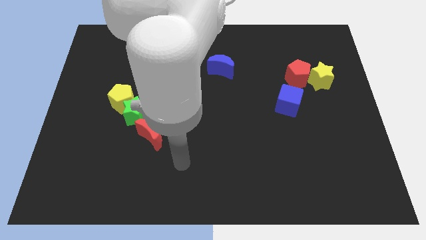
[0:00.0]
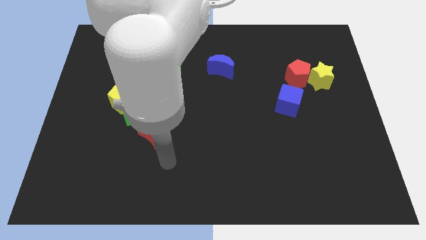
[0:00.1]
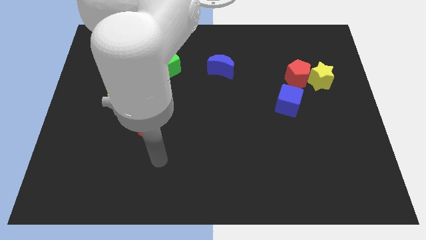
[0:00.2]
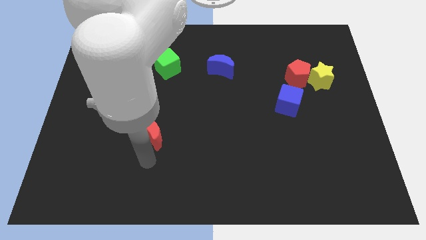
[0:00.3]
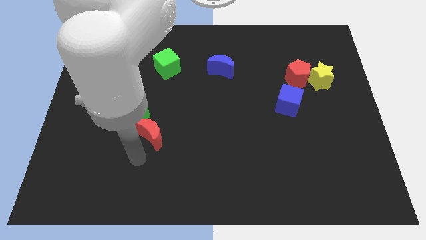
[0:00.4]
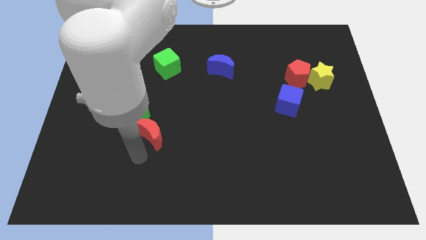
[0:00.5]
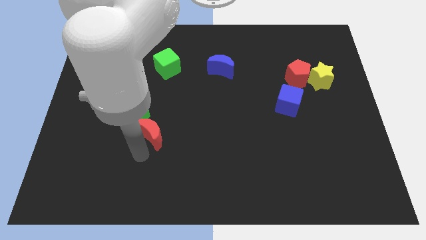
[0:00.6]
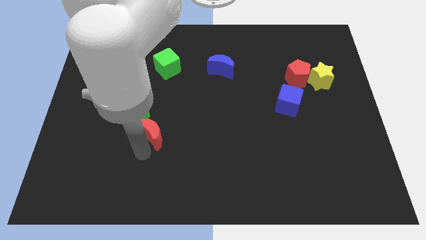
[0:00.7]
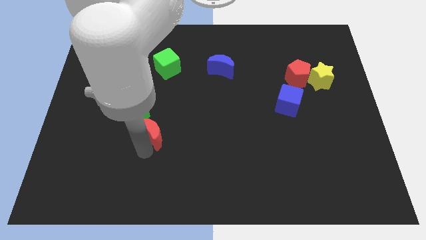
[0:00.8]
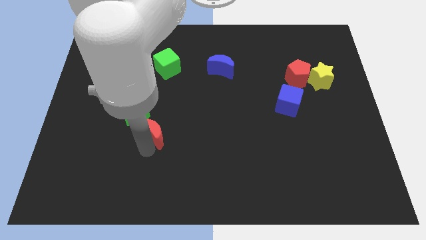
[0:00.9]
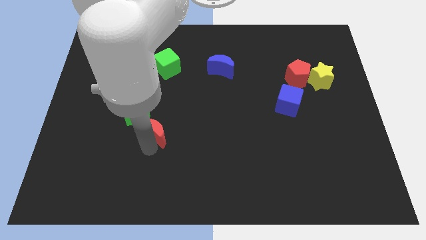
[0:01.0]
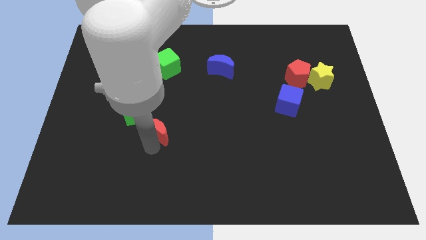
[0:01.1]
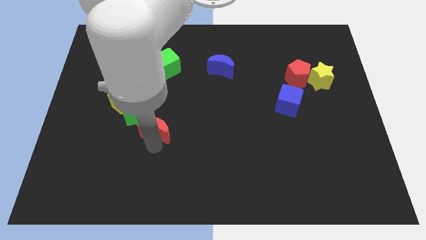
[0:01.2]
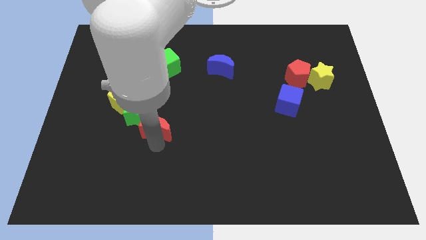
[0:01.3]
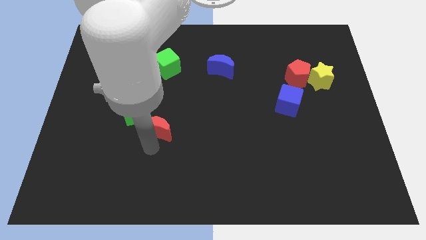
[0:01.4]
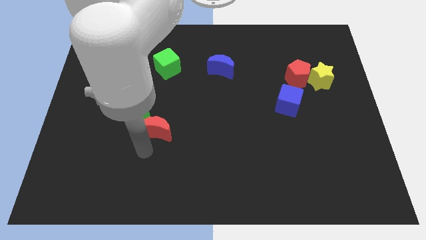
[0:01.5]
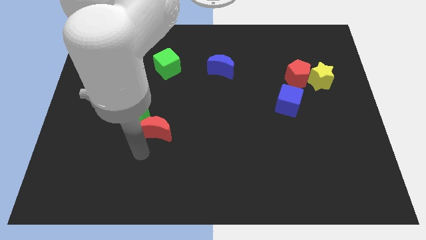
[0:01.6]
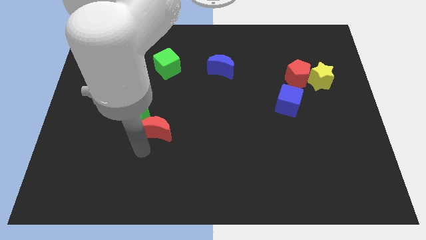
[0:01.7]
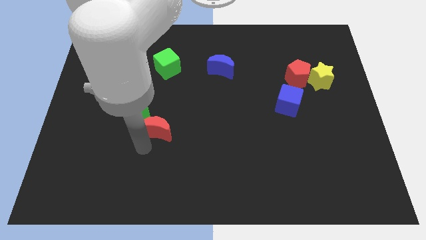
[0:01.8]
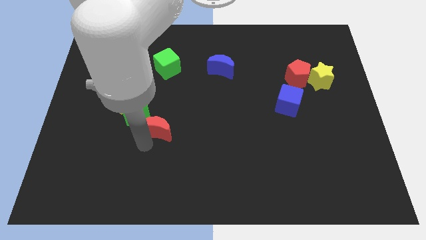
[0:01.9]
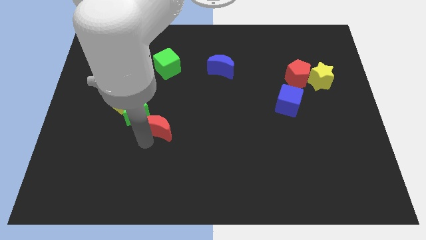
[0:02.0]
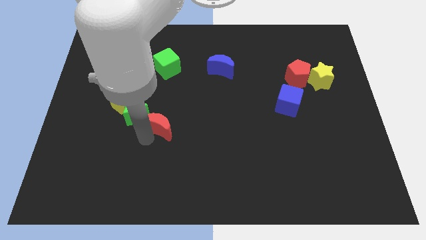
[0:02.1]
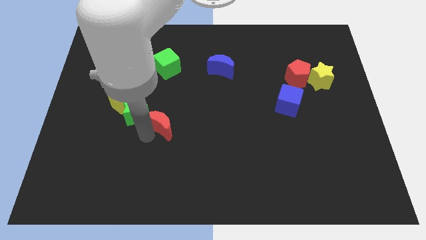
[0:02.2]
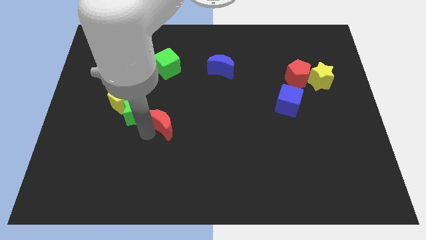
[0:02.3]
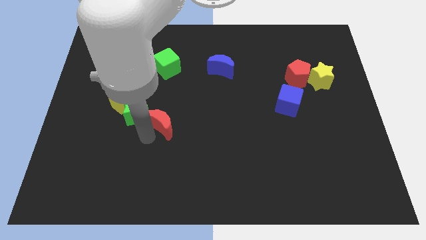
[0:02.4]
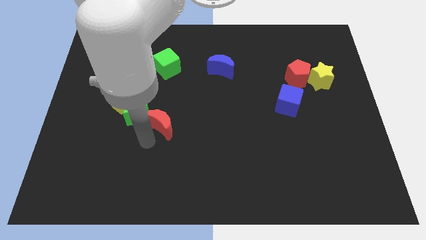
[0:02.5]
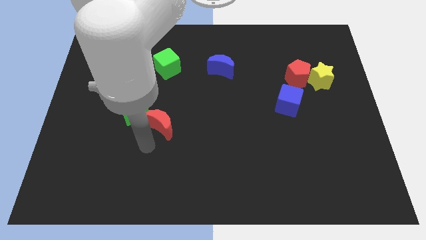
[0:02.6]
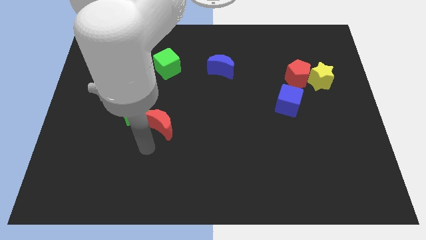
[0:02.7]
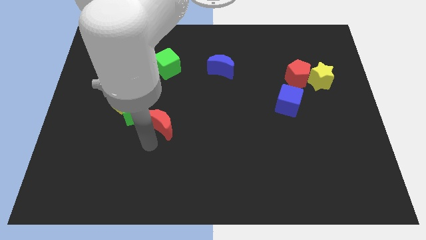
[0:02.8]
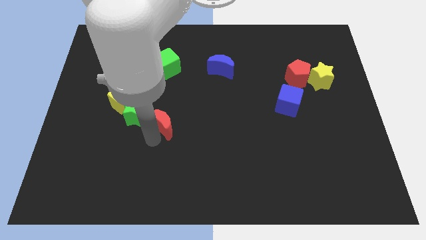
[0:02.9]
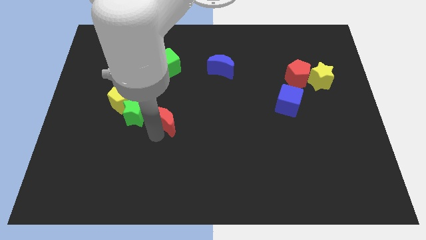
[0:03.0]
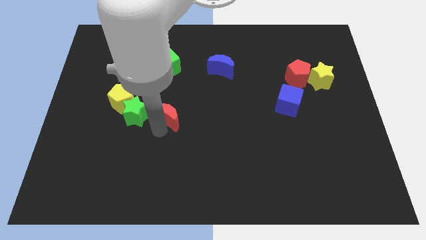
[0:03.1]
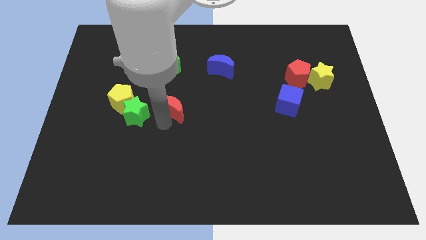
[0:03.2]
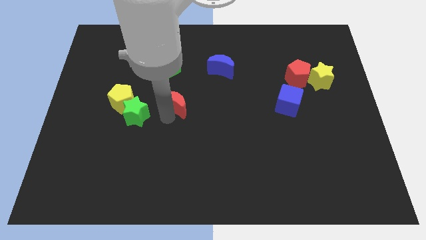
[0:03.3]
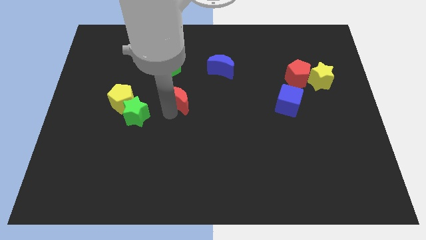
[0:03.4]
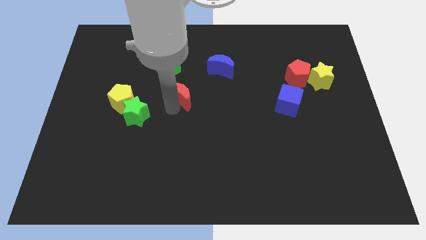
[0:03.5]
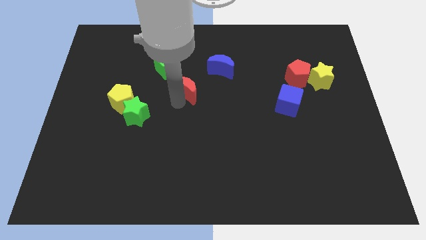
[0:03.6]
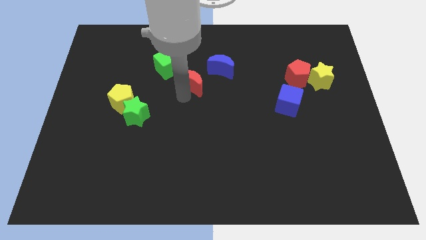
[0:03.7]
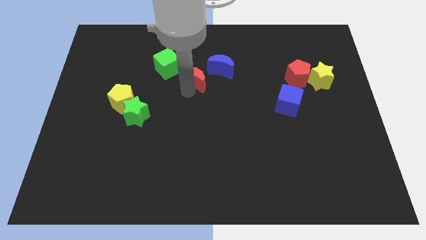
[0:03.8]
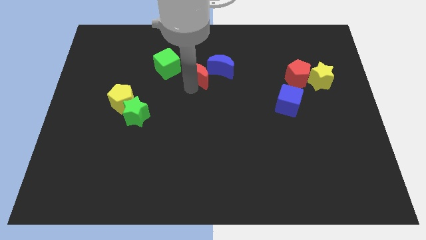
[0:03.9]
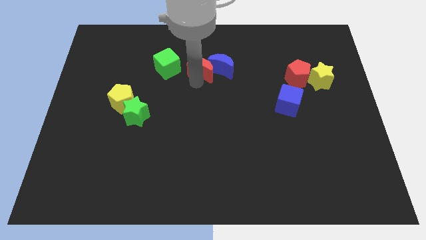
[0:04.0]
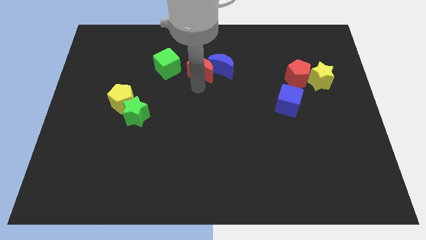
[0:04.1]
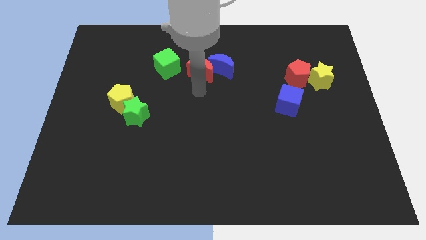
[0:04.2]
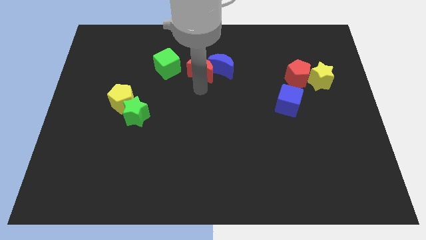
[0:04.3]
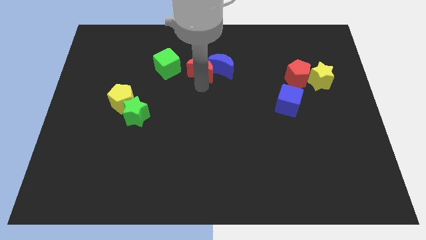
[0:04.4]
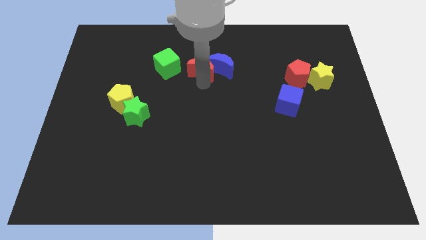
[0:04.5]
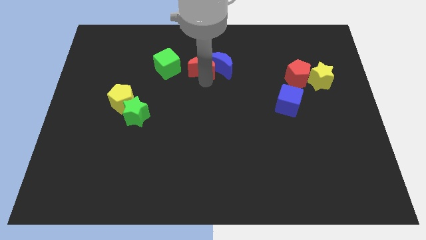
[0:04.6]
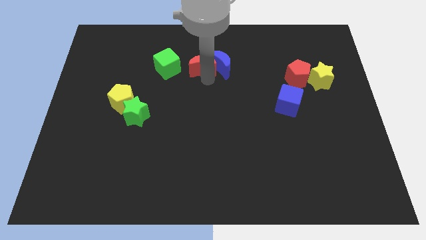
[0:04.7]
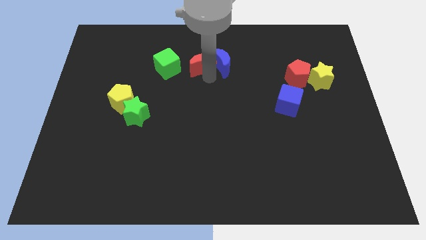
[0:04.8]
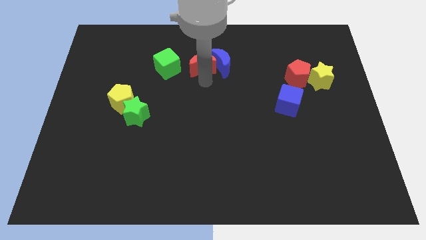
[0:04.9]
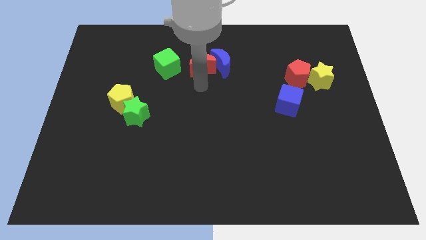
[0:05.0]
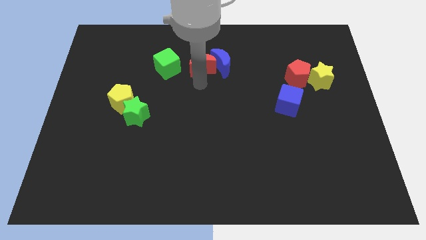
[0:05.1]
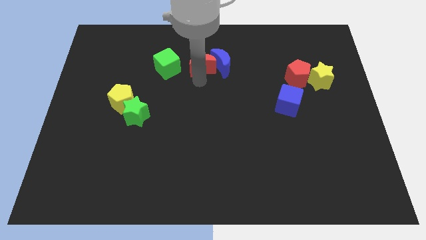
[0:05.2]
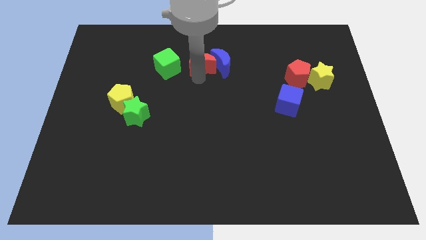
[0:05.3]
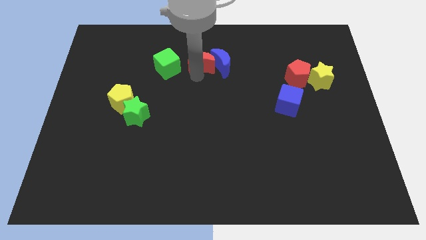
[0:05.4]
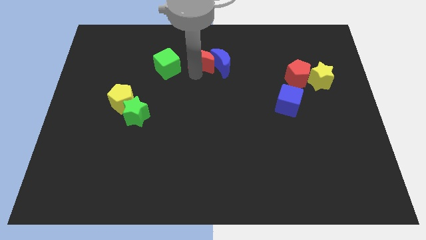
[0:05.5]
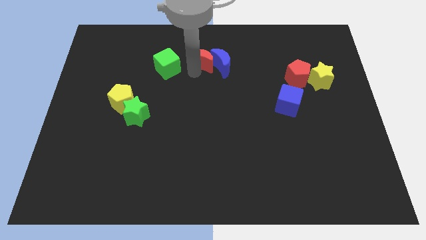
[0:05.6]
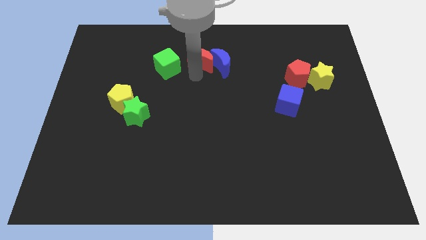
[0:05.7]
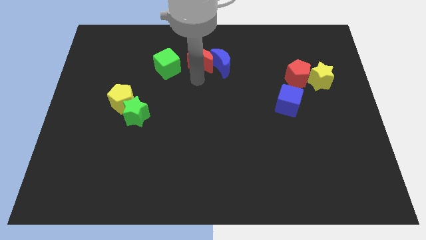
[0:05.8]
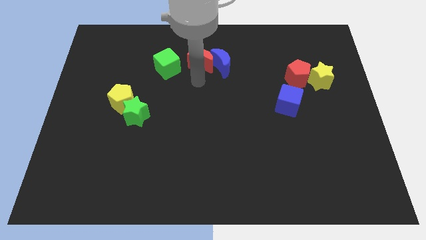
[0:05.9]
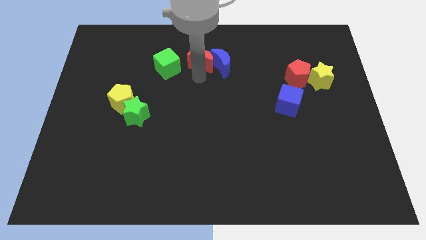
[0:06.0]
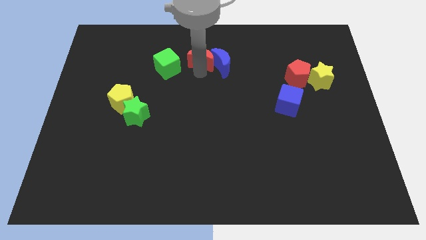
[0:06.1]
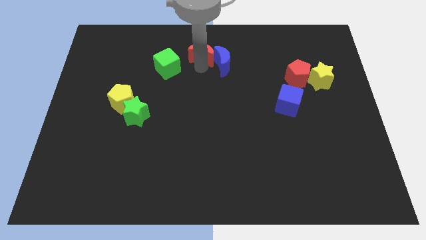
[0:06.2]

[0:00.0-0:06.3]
push the red moon to the towards your base

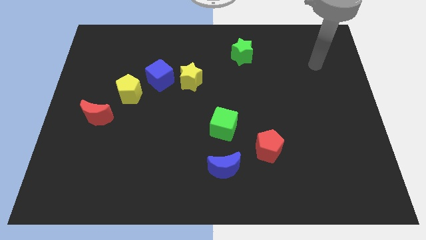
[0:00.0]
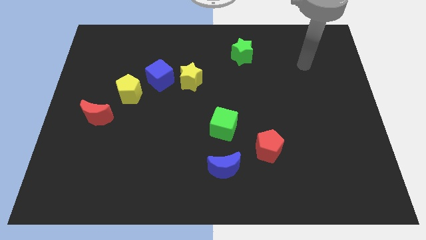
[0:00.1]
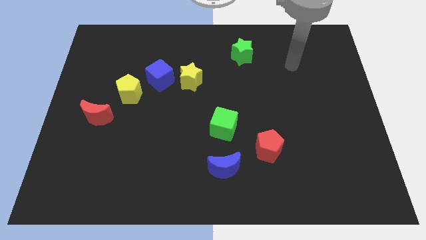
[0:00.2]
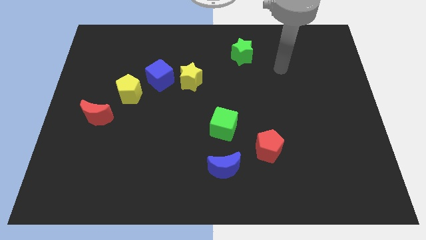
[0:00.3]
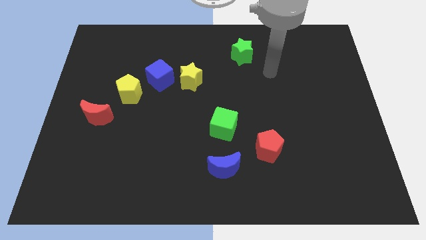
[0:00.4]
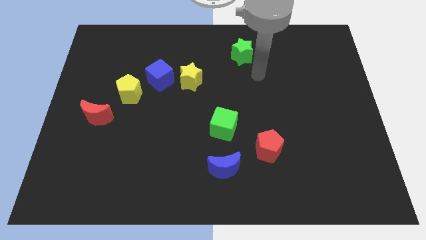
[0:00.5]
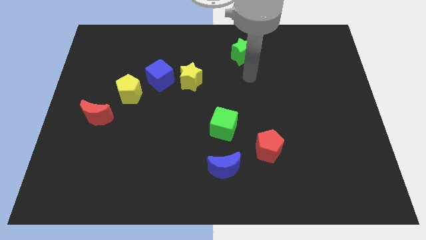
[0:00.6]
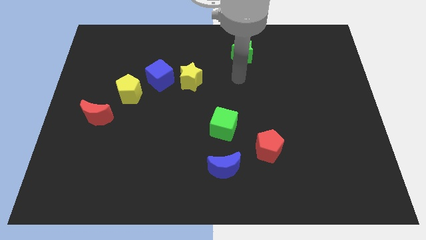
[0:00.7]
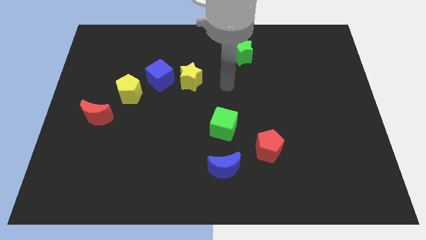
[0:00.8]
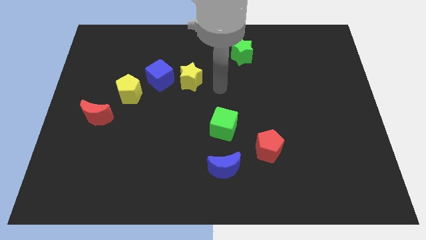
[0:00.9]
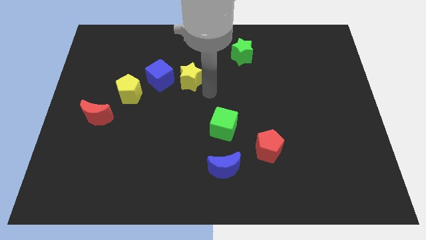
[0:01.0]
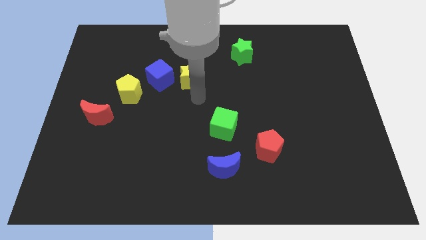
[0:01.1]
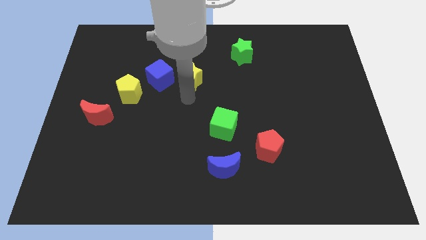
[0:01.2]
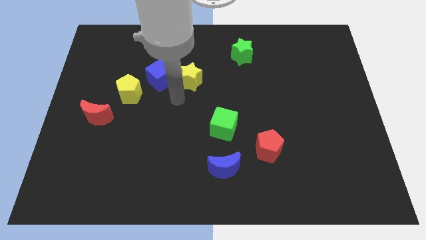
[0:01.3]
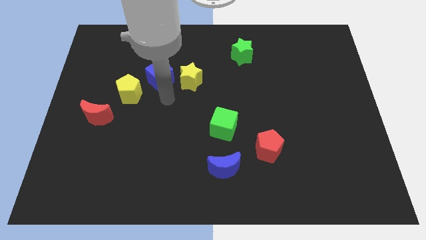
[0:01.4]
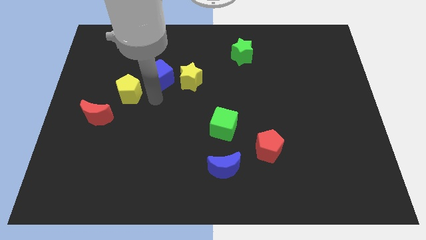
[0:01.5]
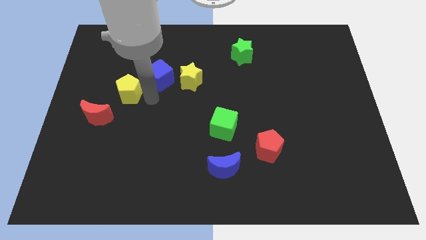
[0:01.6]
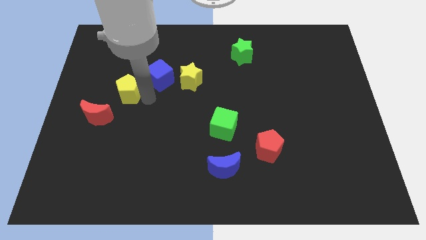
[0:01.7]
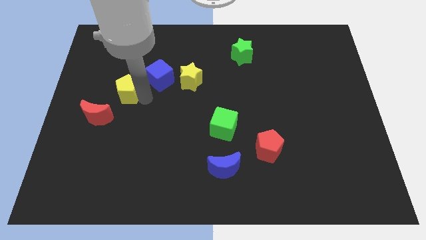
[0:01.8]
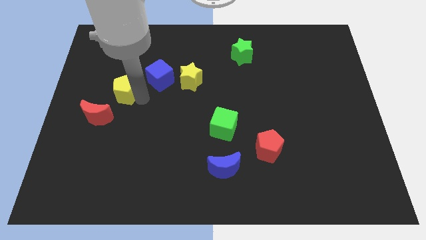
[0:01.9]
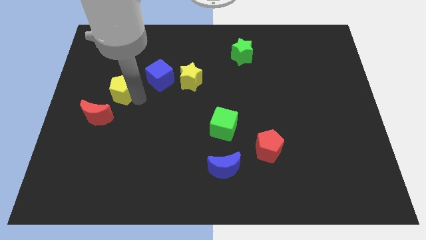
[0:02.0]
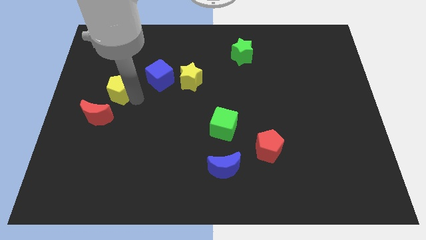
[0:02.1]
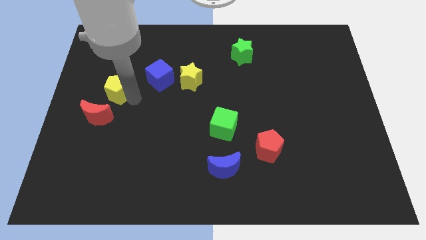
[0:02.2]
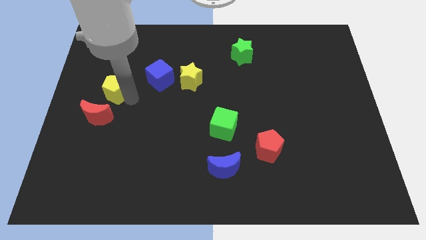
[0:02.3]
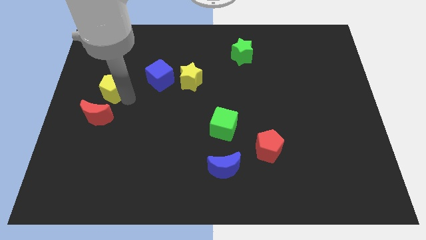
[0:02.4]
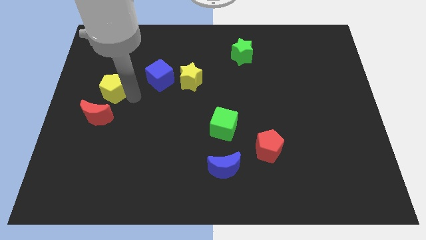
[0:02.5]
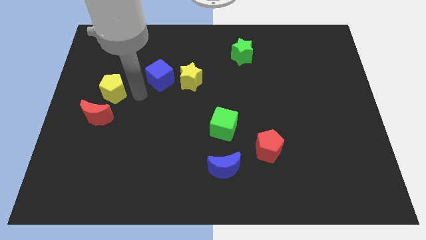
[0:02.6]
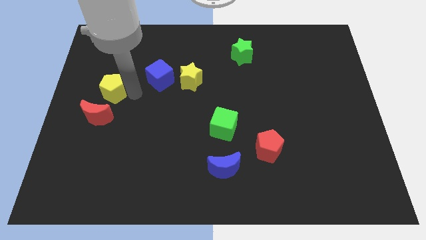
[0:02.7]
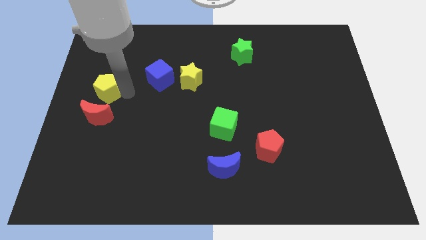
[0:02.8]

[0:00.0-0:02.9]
slide the yellow pentagon to the left side
